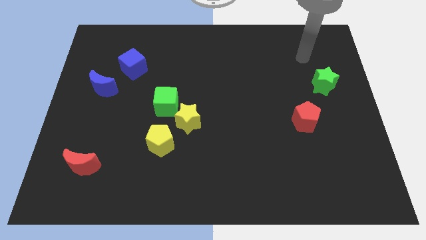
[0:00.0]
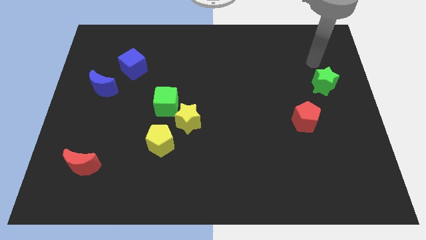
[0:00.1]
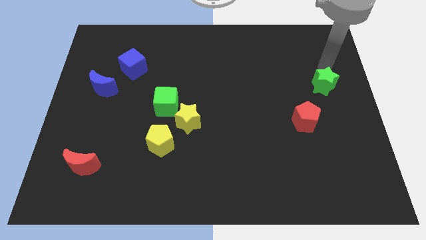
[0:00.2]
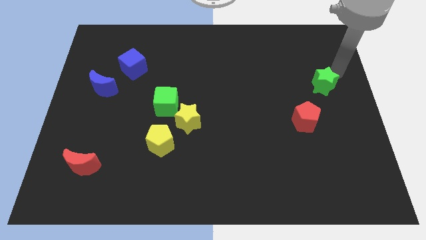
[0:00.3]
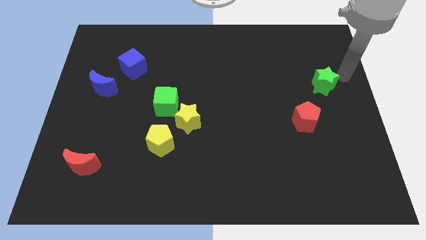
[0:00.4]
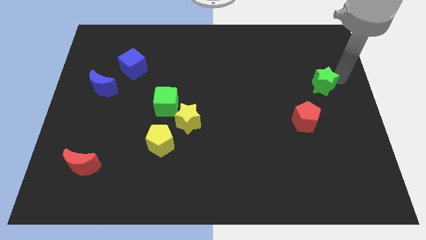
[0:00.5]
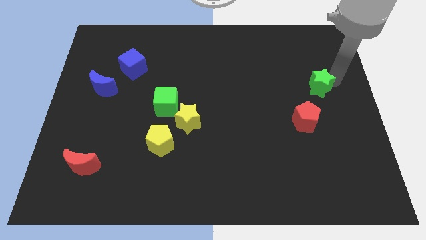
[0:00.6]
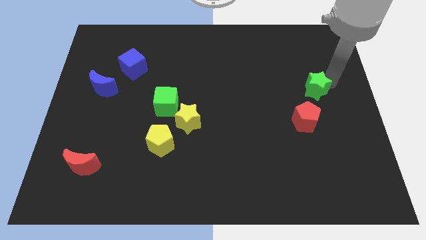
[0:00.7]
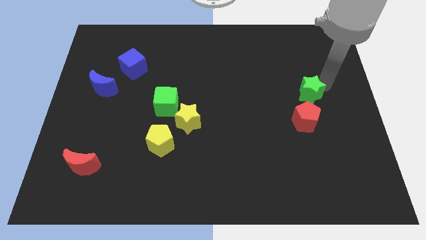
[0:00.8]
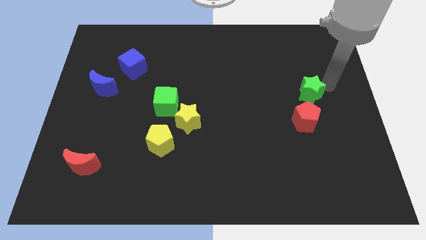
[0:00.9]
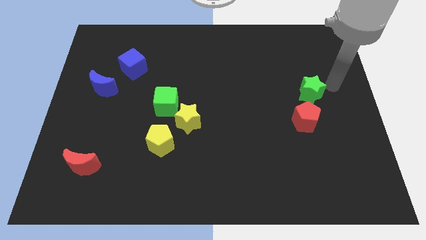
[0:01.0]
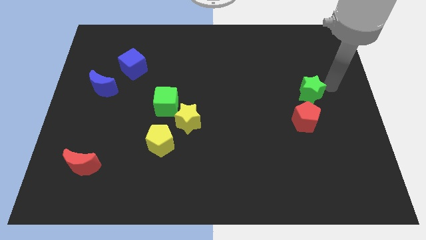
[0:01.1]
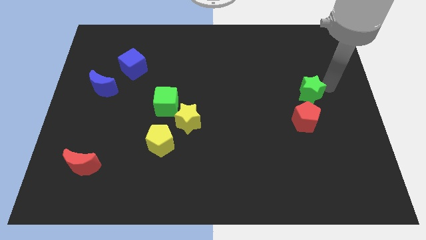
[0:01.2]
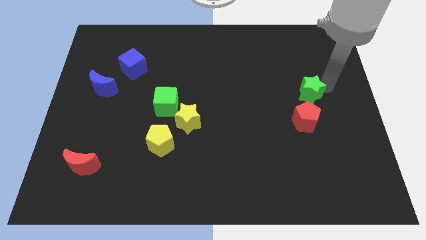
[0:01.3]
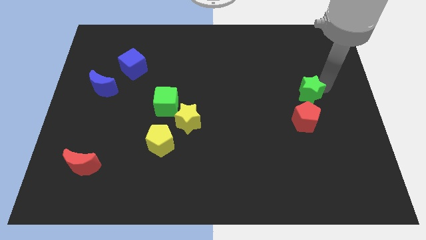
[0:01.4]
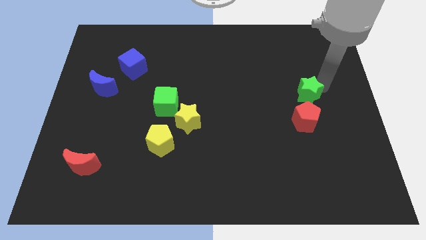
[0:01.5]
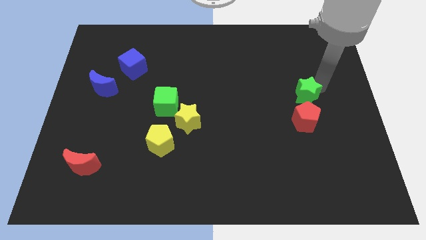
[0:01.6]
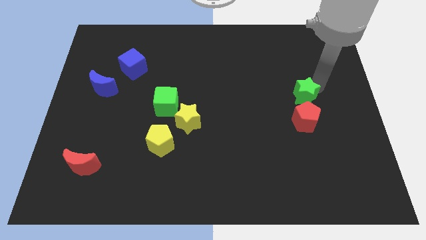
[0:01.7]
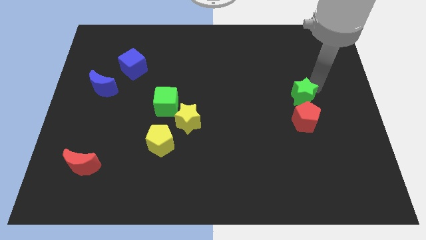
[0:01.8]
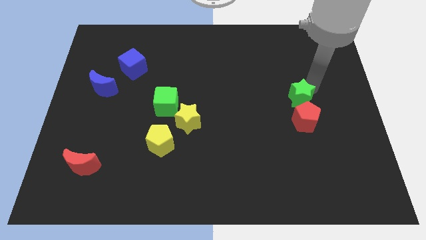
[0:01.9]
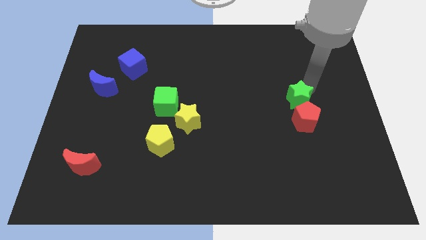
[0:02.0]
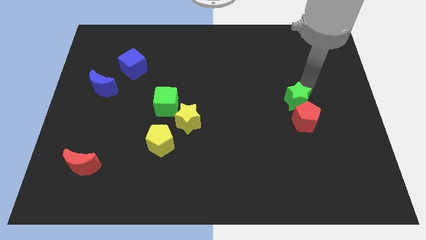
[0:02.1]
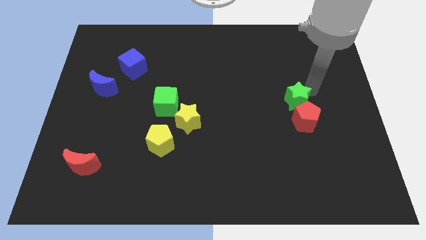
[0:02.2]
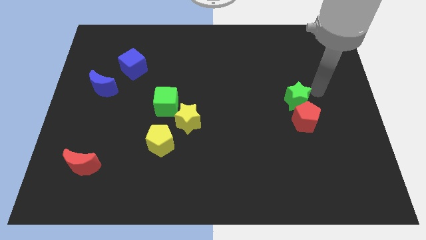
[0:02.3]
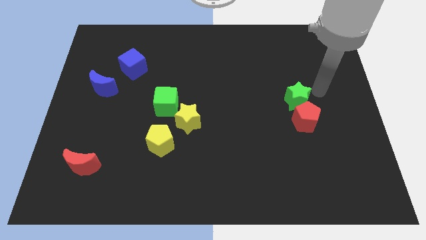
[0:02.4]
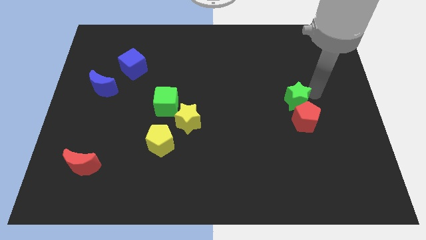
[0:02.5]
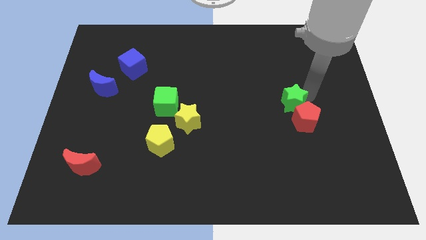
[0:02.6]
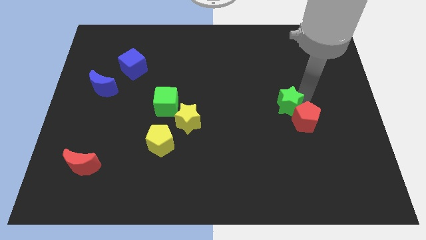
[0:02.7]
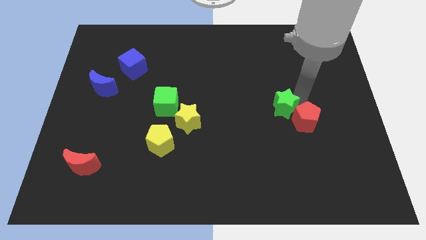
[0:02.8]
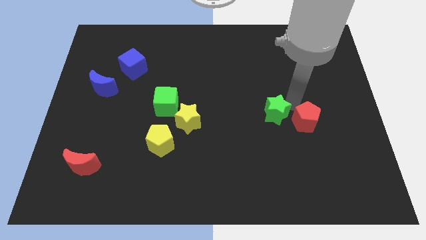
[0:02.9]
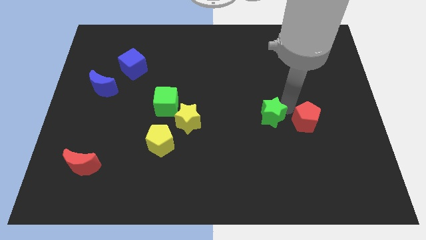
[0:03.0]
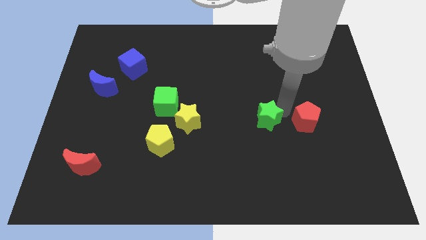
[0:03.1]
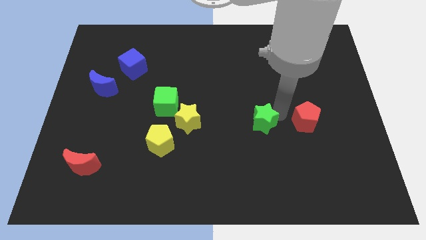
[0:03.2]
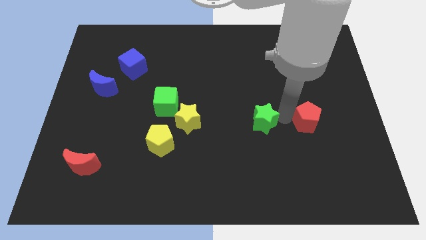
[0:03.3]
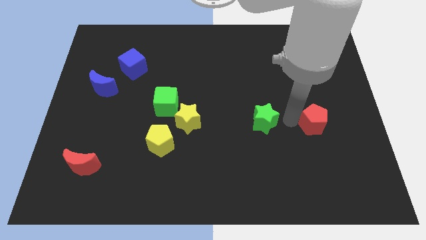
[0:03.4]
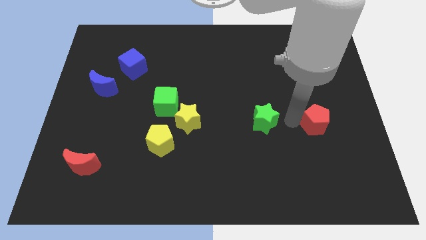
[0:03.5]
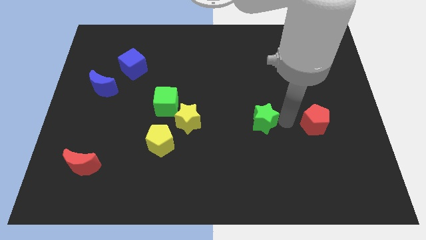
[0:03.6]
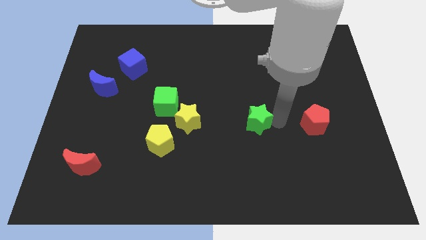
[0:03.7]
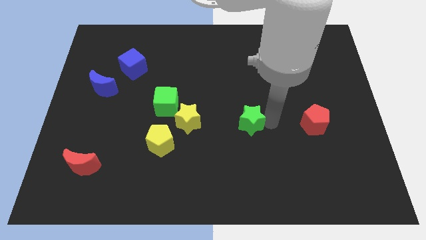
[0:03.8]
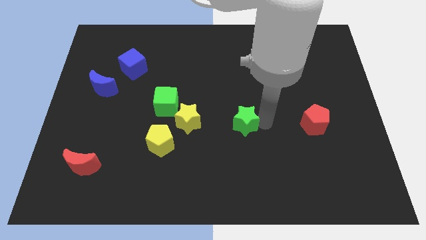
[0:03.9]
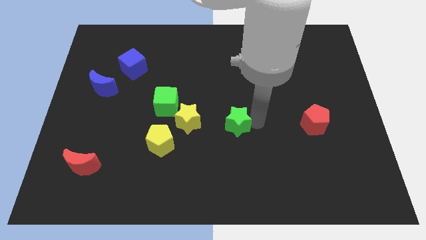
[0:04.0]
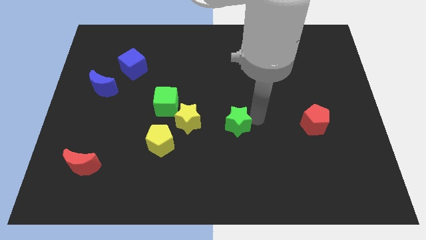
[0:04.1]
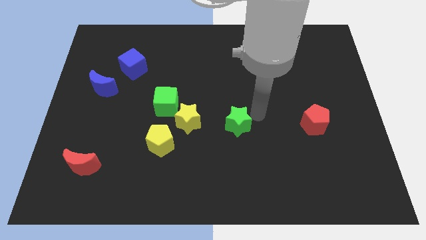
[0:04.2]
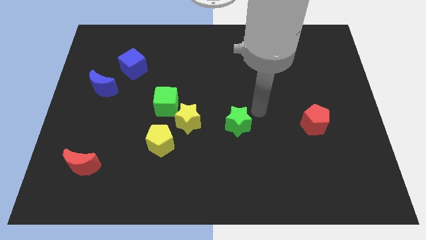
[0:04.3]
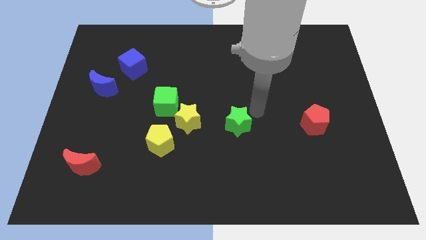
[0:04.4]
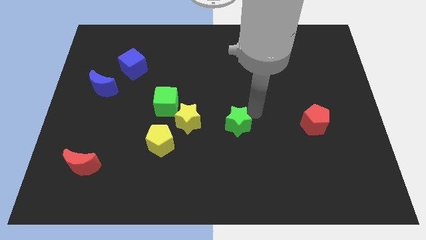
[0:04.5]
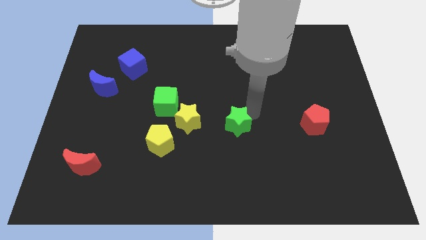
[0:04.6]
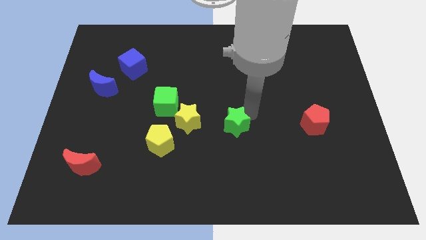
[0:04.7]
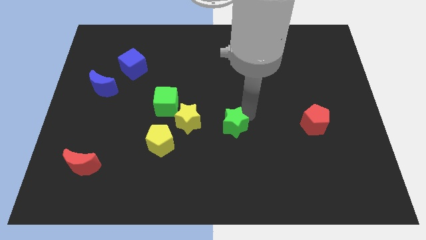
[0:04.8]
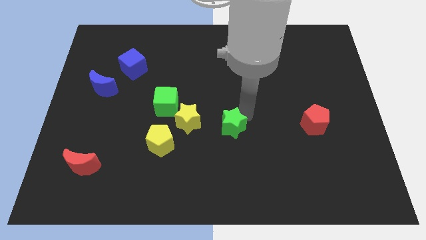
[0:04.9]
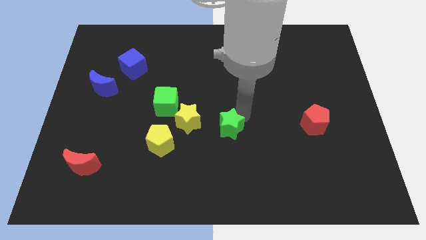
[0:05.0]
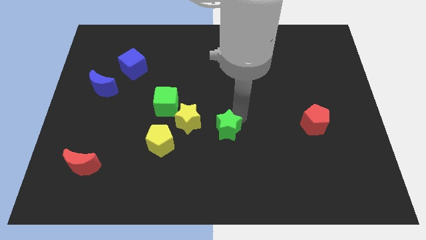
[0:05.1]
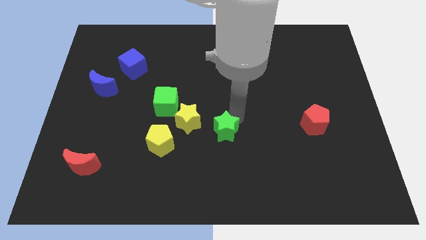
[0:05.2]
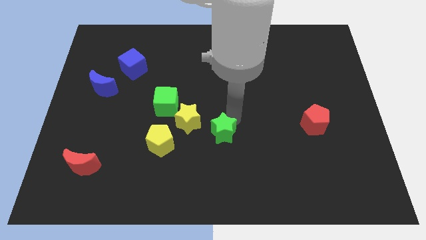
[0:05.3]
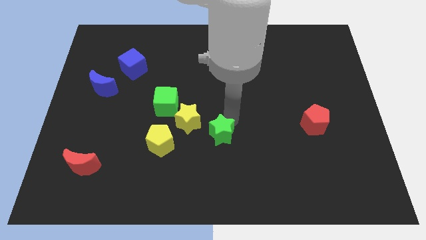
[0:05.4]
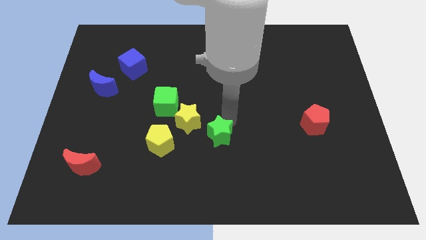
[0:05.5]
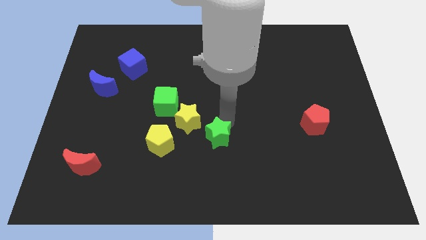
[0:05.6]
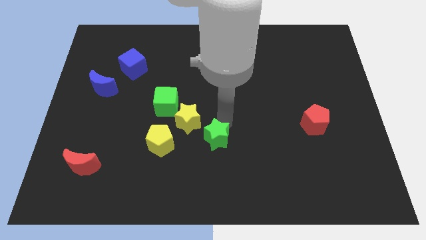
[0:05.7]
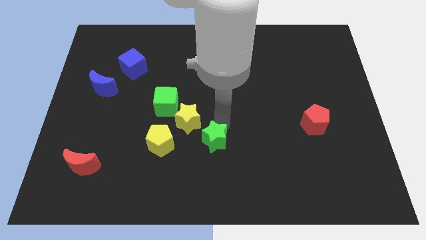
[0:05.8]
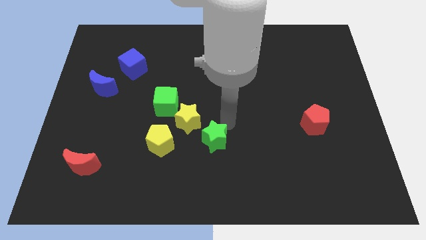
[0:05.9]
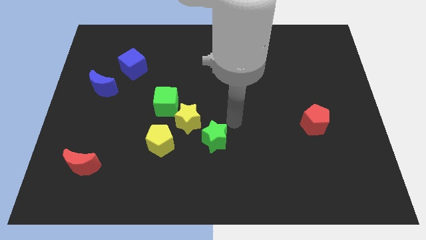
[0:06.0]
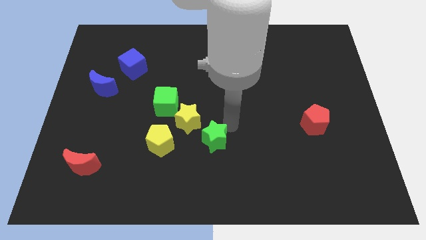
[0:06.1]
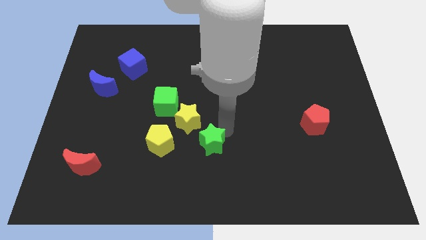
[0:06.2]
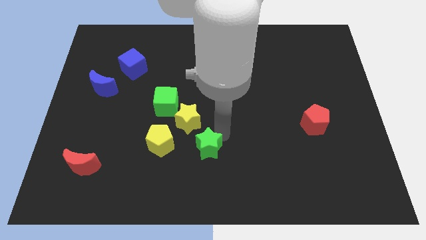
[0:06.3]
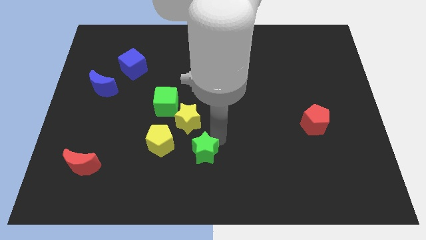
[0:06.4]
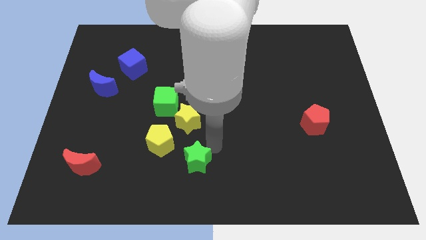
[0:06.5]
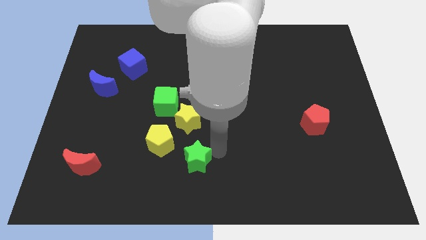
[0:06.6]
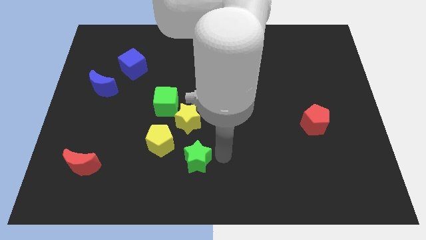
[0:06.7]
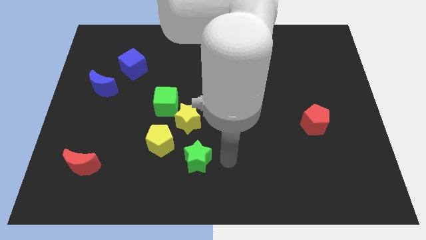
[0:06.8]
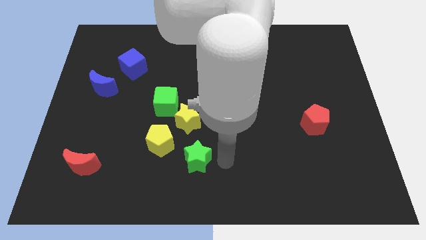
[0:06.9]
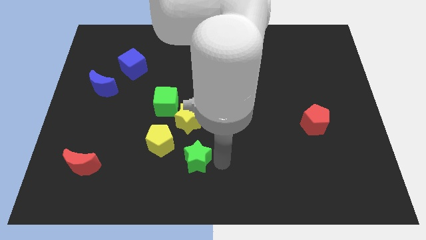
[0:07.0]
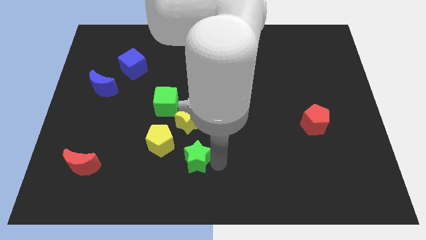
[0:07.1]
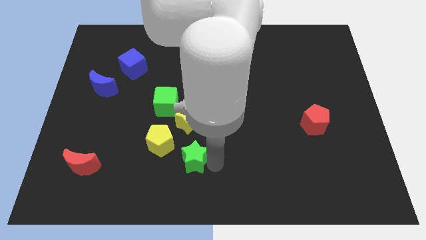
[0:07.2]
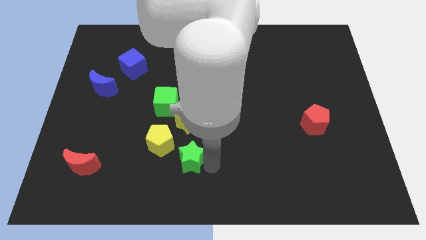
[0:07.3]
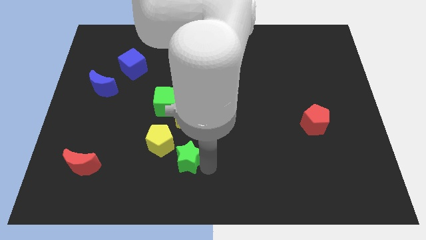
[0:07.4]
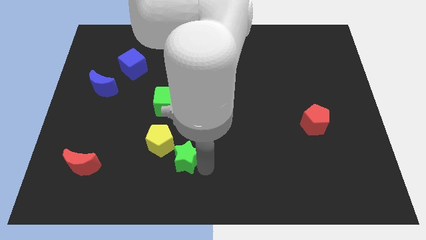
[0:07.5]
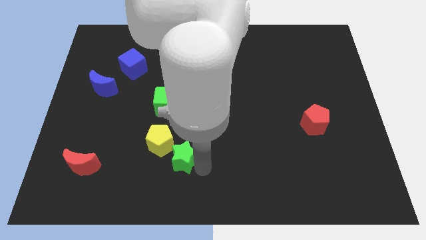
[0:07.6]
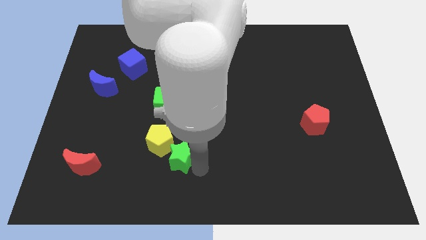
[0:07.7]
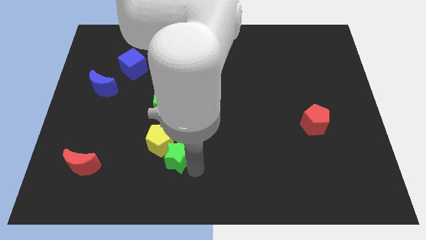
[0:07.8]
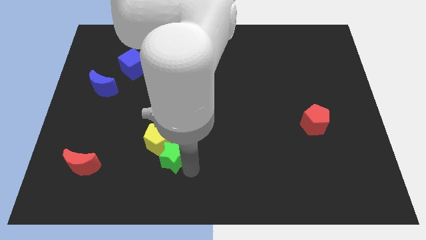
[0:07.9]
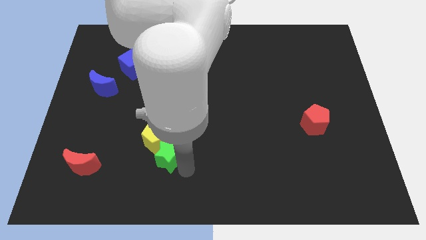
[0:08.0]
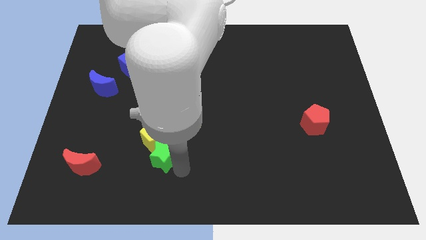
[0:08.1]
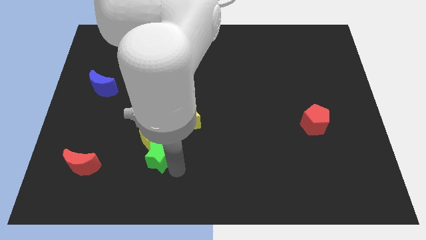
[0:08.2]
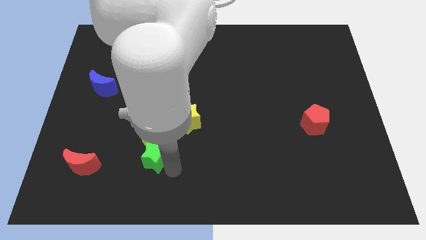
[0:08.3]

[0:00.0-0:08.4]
slide the green star to the bottom left of the yellow pentagon
